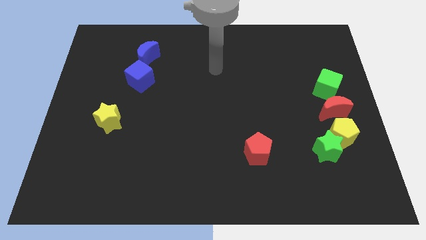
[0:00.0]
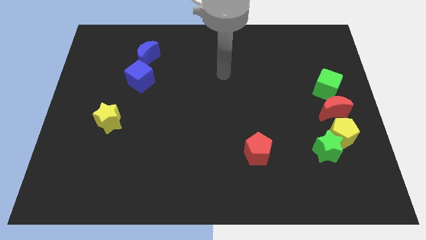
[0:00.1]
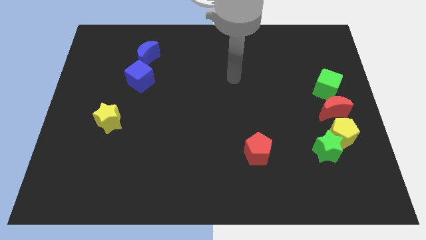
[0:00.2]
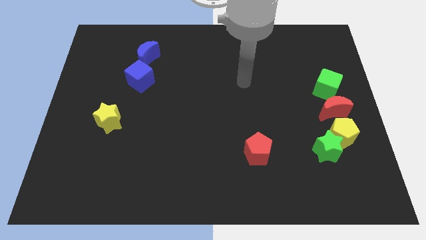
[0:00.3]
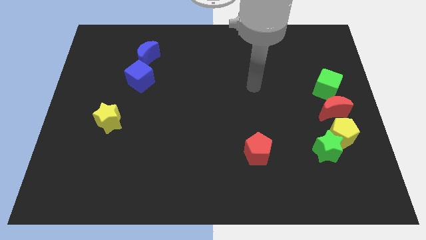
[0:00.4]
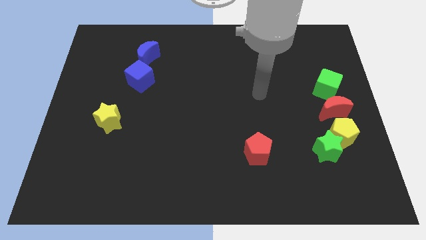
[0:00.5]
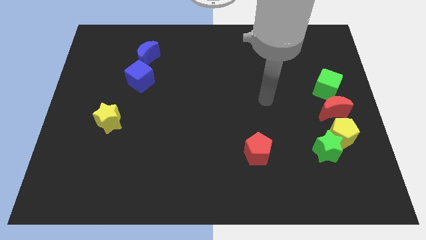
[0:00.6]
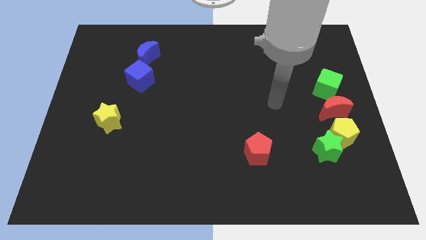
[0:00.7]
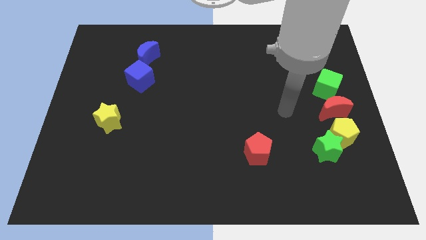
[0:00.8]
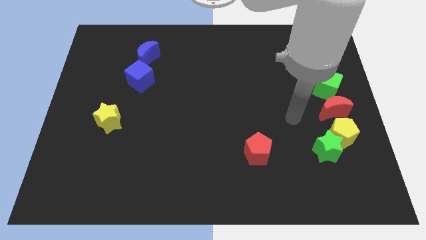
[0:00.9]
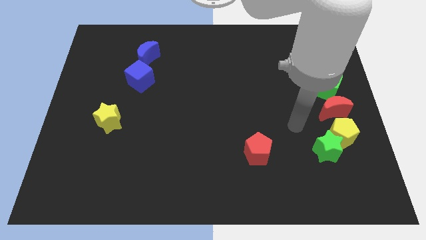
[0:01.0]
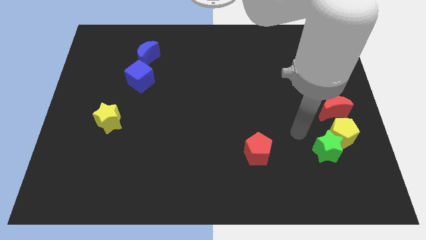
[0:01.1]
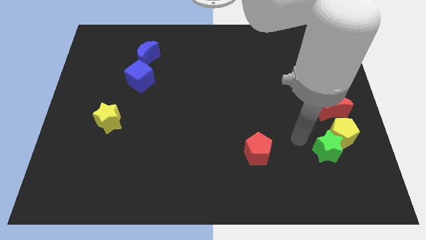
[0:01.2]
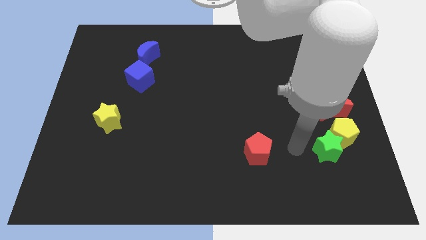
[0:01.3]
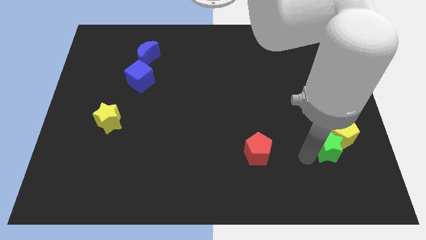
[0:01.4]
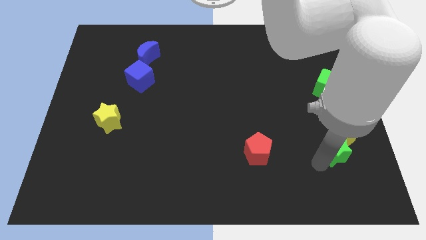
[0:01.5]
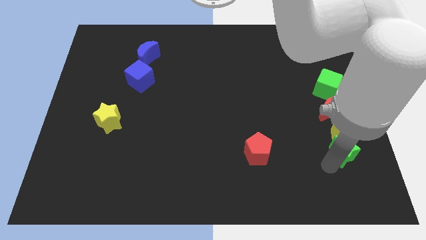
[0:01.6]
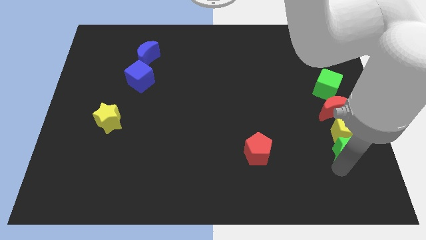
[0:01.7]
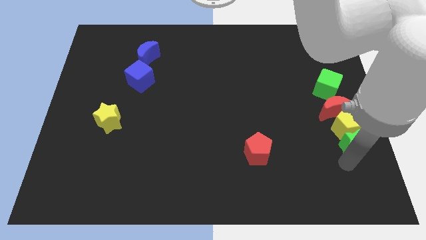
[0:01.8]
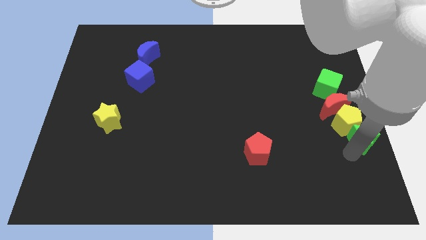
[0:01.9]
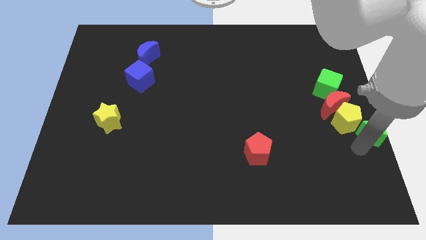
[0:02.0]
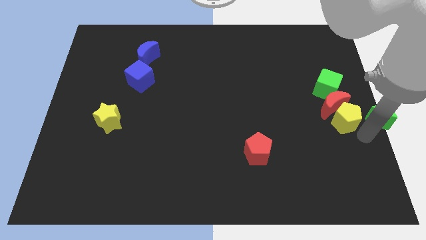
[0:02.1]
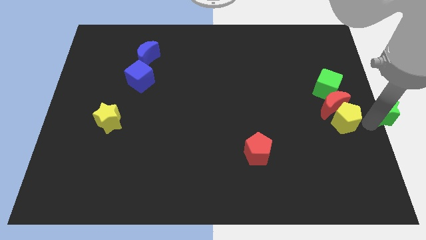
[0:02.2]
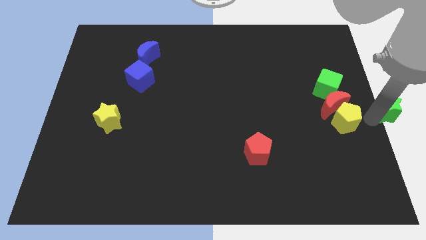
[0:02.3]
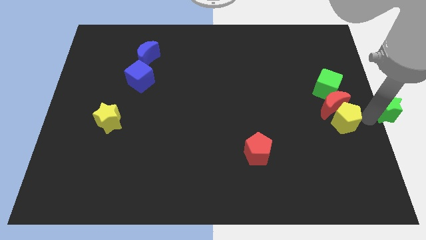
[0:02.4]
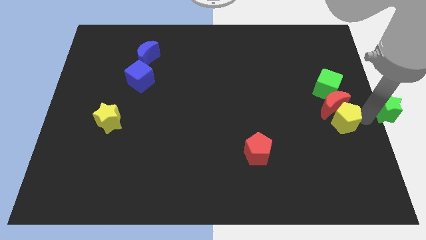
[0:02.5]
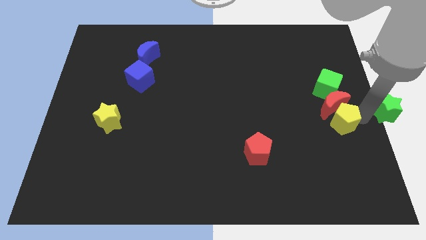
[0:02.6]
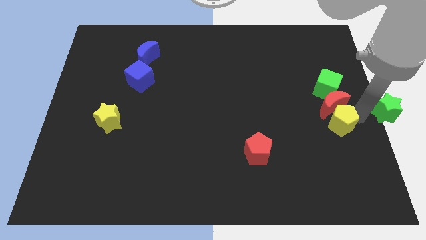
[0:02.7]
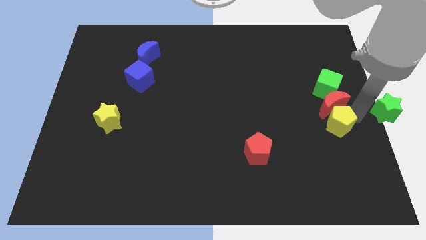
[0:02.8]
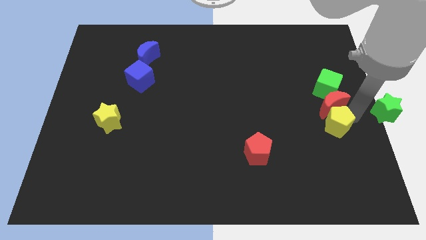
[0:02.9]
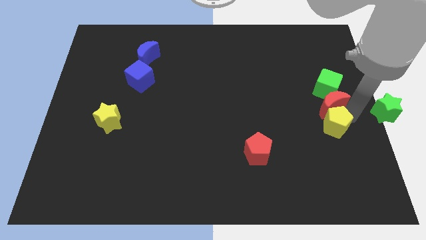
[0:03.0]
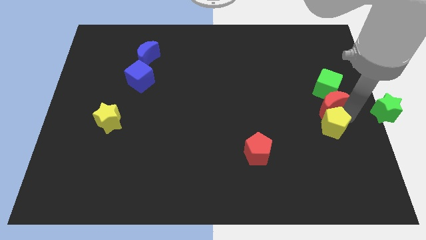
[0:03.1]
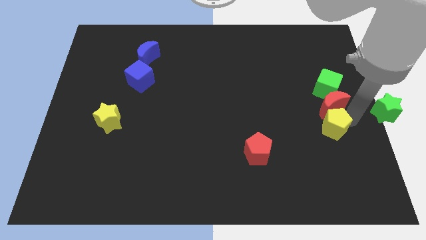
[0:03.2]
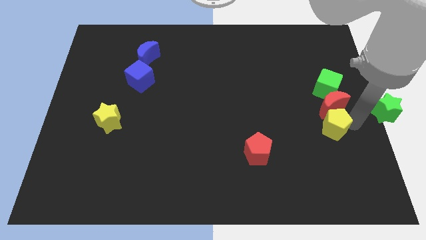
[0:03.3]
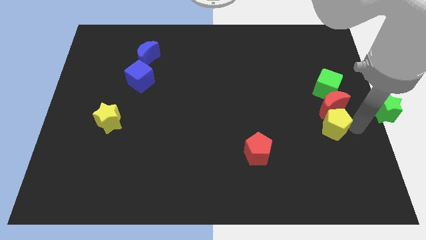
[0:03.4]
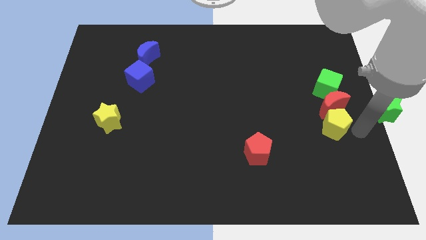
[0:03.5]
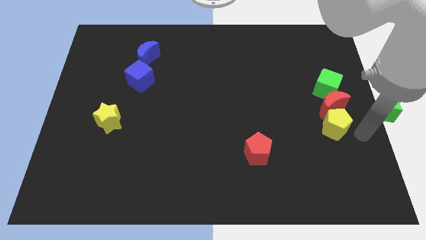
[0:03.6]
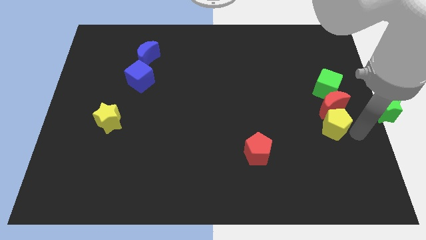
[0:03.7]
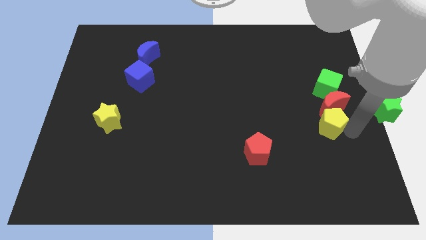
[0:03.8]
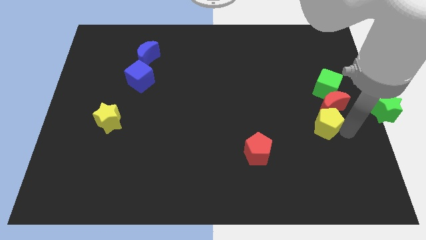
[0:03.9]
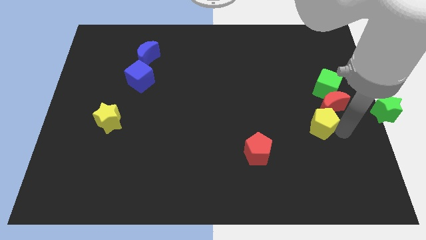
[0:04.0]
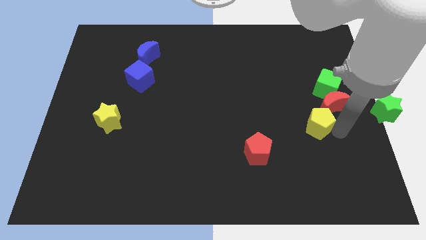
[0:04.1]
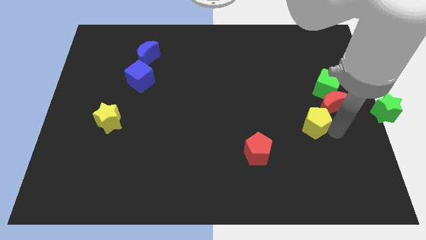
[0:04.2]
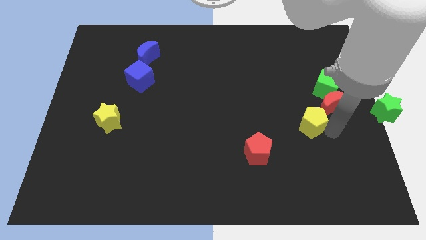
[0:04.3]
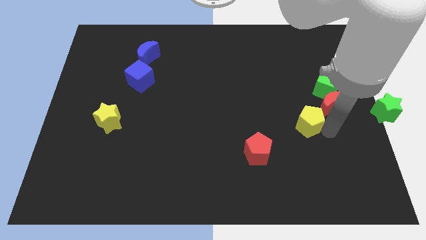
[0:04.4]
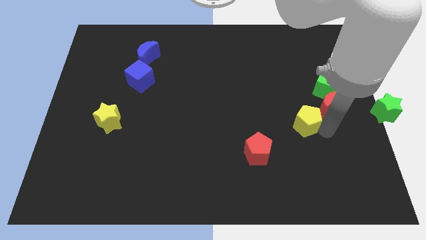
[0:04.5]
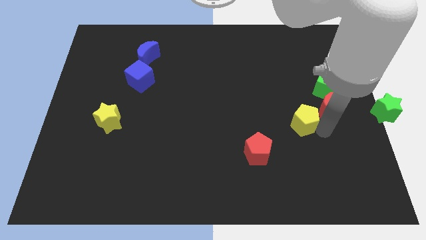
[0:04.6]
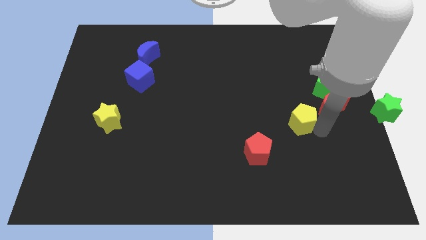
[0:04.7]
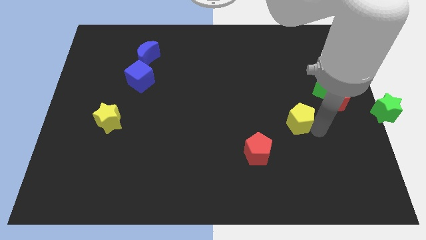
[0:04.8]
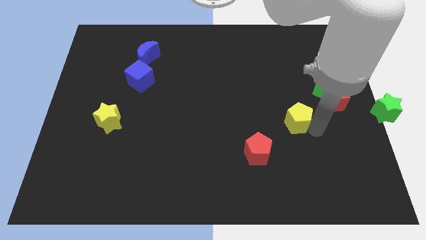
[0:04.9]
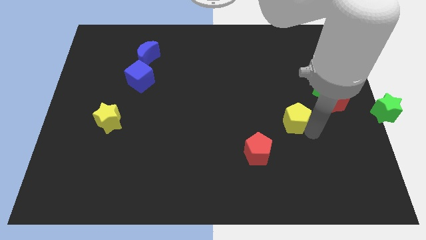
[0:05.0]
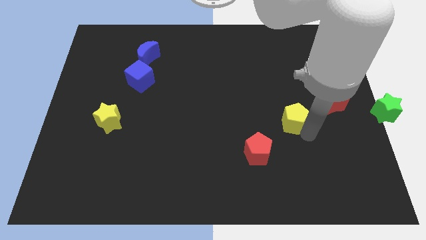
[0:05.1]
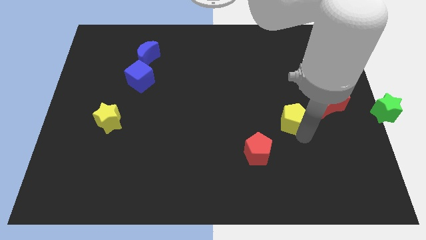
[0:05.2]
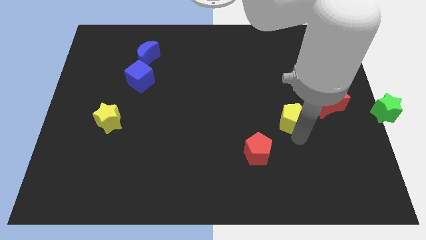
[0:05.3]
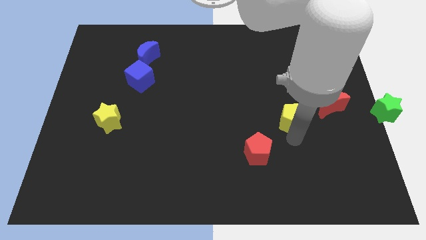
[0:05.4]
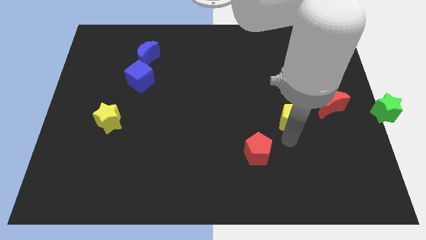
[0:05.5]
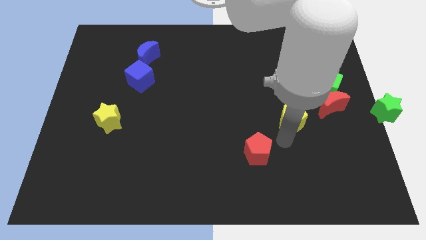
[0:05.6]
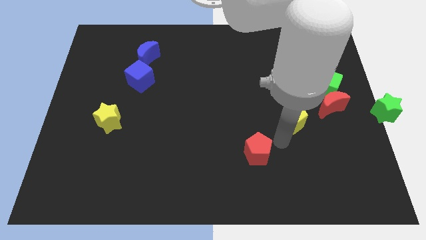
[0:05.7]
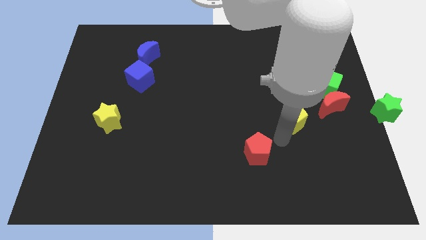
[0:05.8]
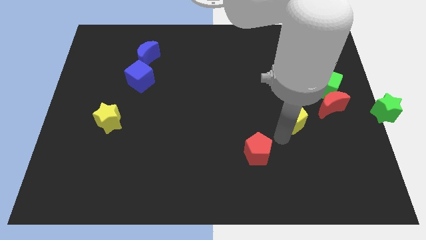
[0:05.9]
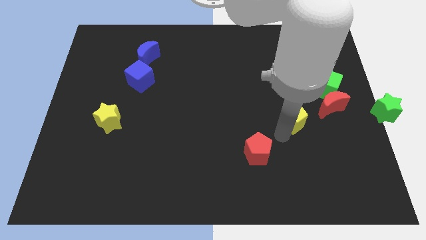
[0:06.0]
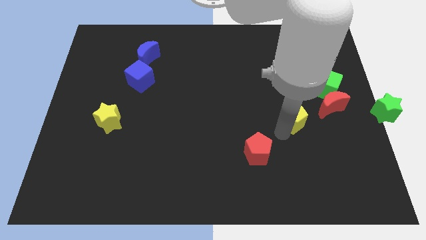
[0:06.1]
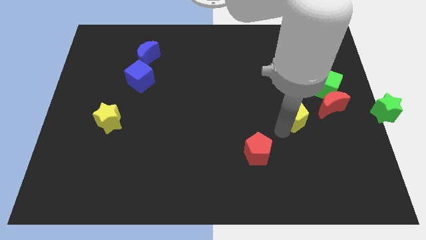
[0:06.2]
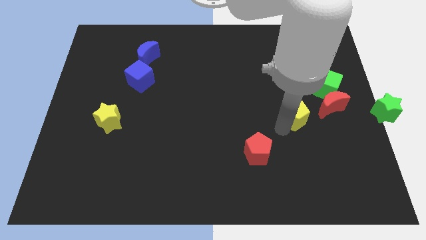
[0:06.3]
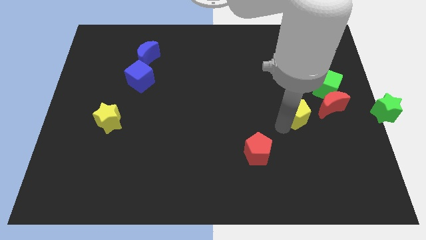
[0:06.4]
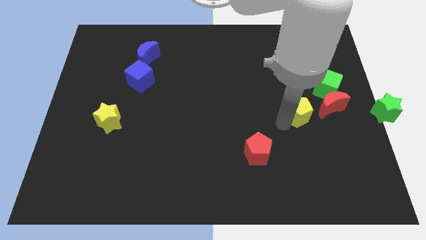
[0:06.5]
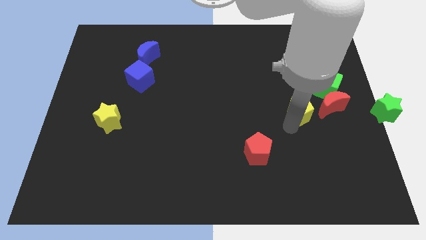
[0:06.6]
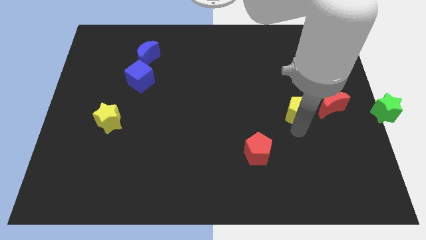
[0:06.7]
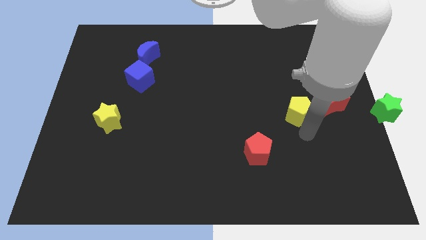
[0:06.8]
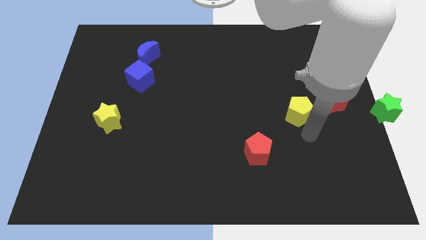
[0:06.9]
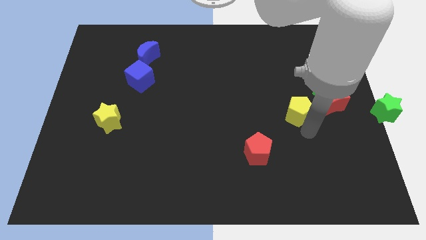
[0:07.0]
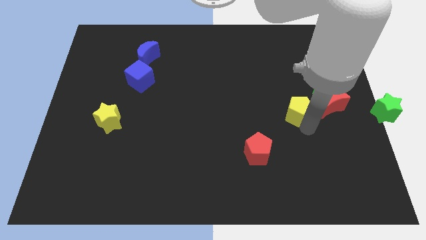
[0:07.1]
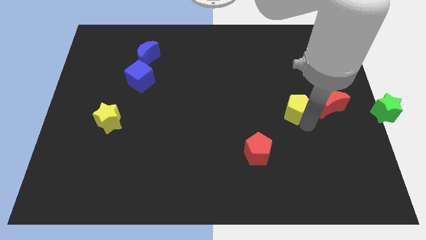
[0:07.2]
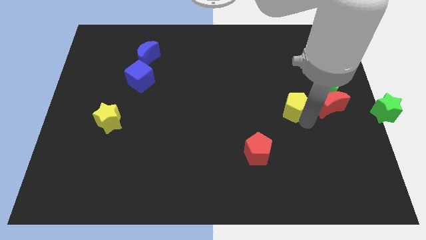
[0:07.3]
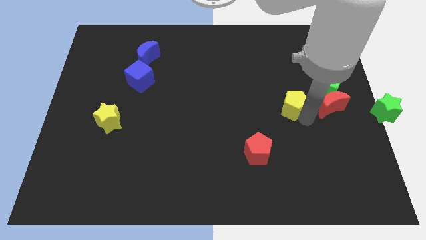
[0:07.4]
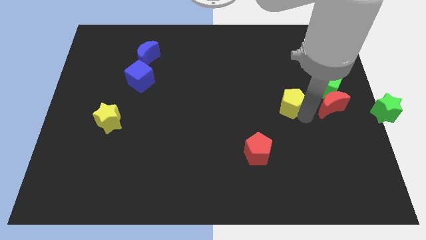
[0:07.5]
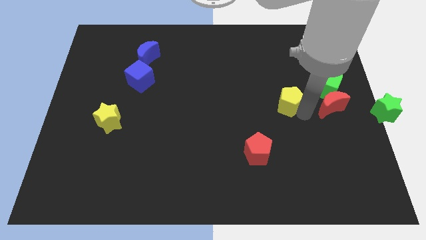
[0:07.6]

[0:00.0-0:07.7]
put the yellow pentagon left of the green cube
